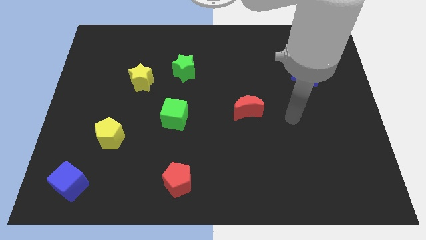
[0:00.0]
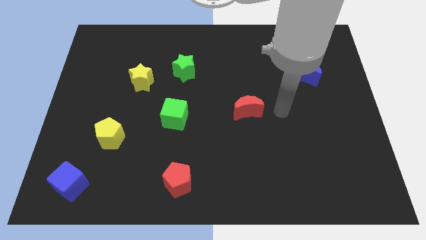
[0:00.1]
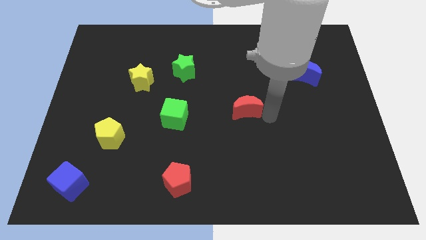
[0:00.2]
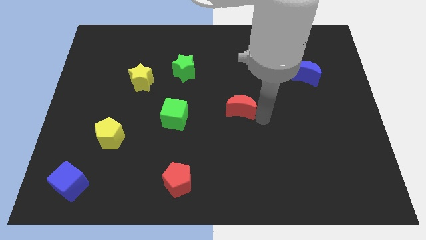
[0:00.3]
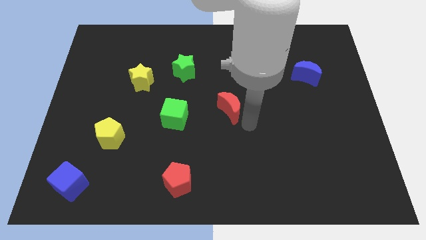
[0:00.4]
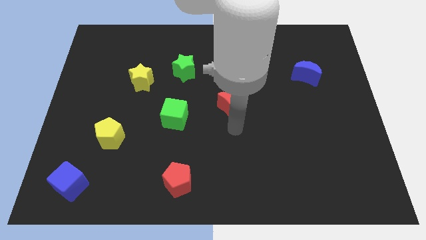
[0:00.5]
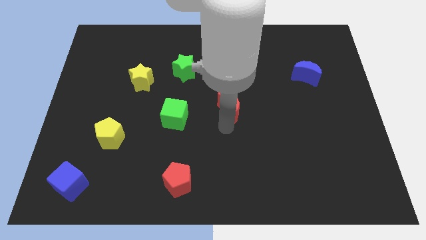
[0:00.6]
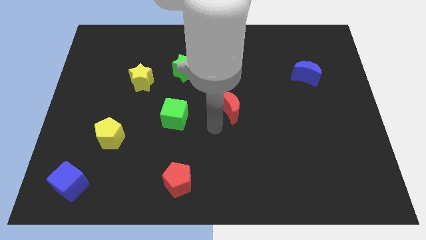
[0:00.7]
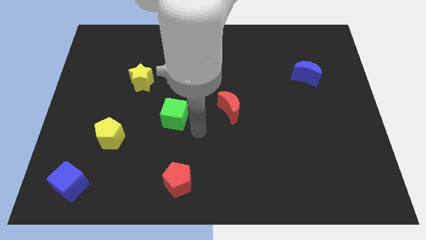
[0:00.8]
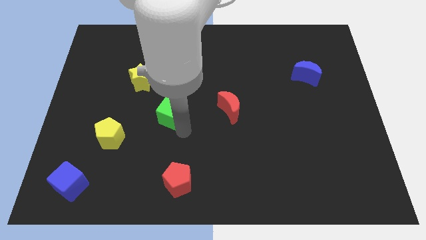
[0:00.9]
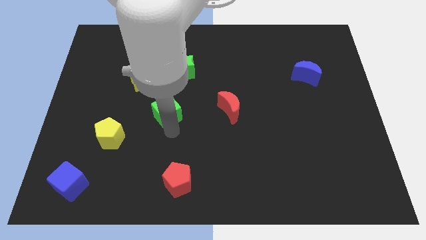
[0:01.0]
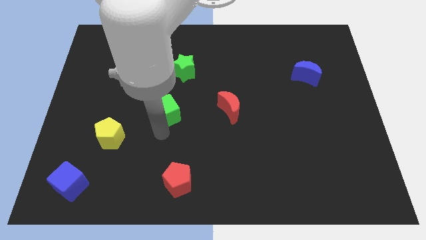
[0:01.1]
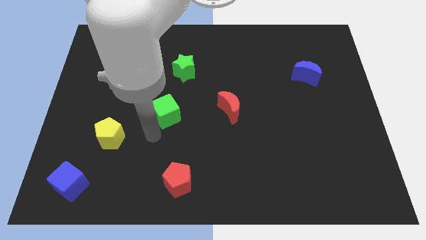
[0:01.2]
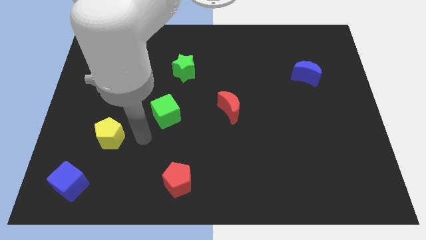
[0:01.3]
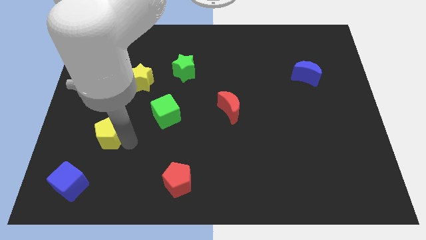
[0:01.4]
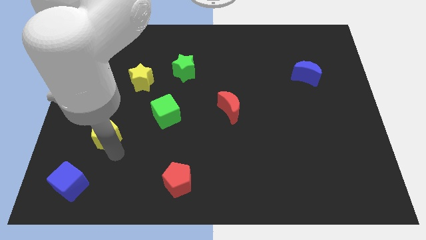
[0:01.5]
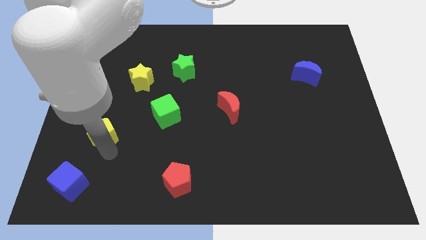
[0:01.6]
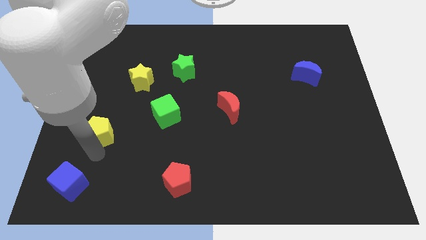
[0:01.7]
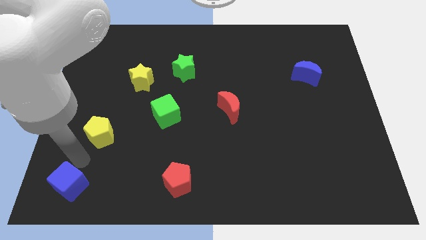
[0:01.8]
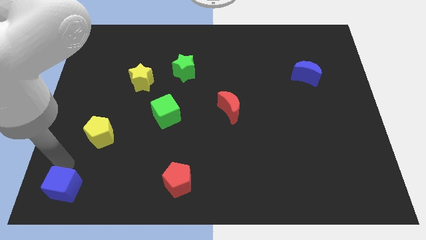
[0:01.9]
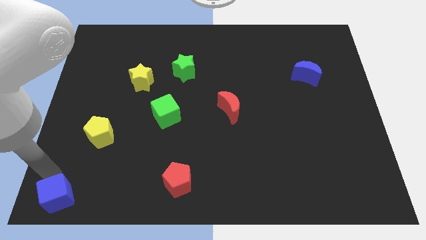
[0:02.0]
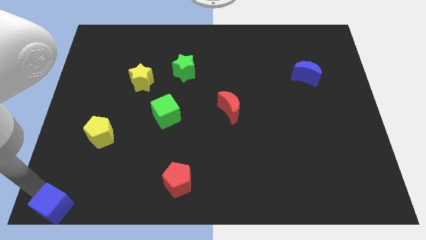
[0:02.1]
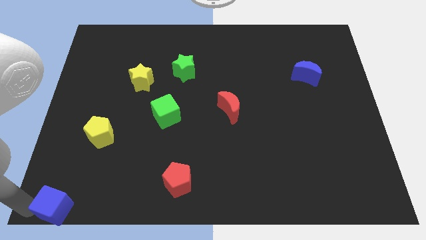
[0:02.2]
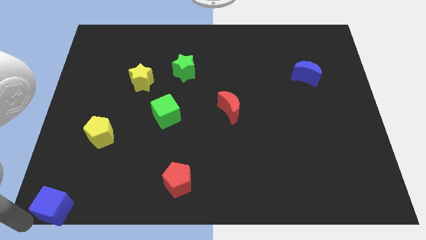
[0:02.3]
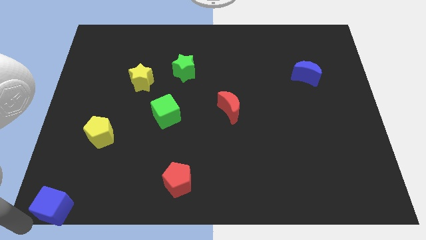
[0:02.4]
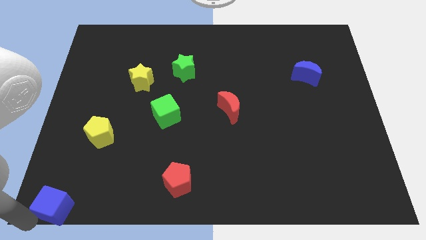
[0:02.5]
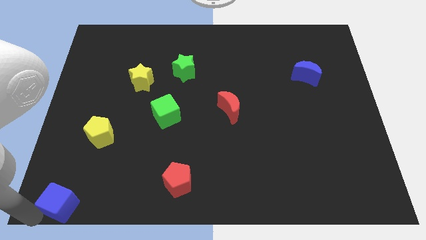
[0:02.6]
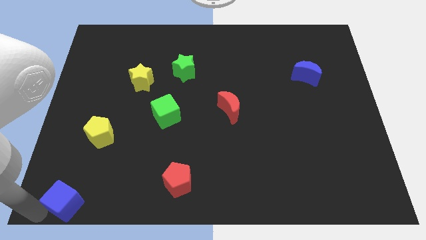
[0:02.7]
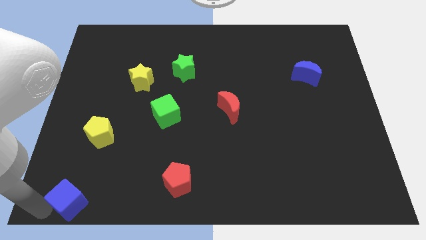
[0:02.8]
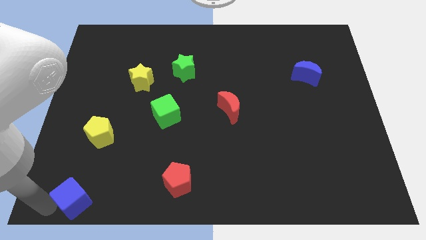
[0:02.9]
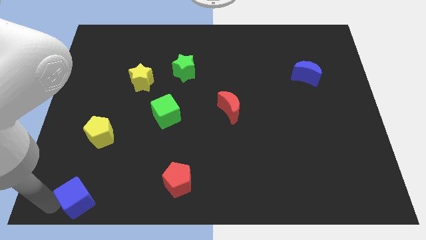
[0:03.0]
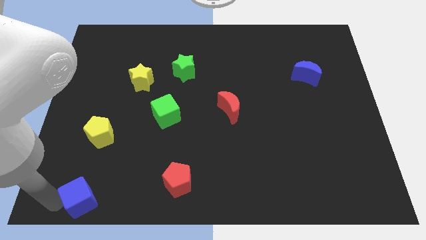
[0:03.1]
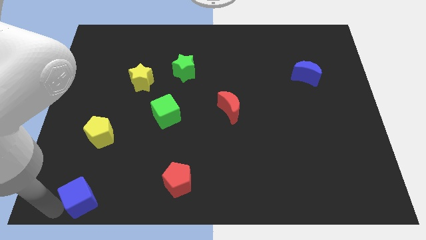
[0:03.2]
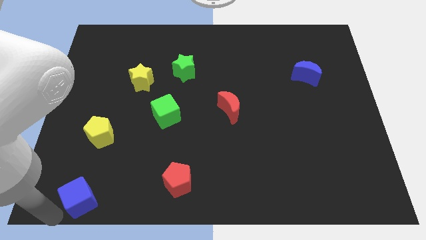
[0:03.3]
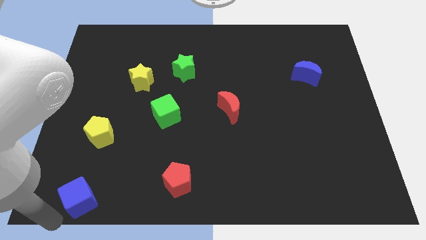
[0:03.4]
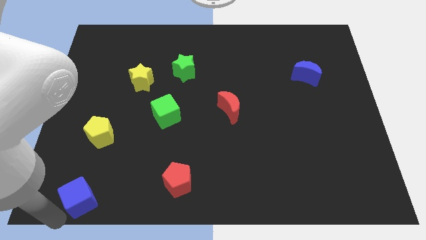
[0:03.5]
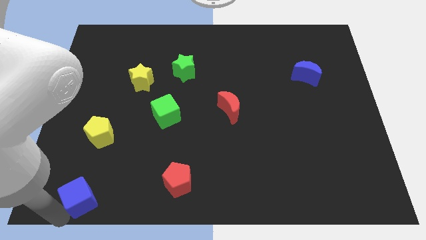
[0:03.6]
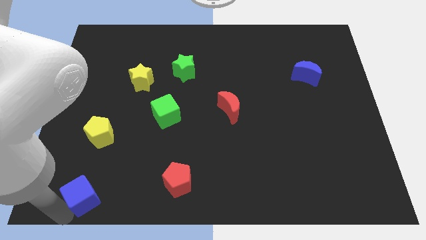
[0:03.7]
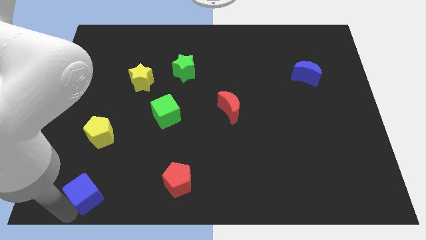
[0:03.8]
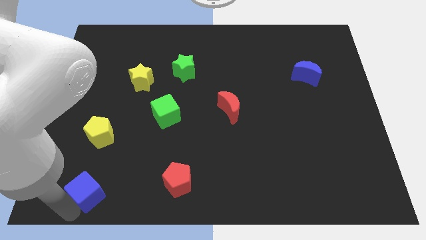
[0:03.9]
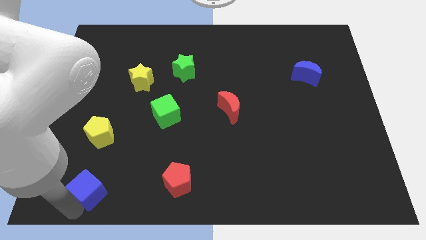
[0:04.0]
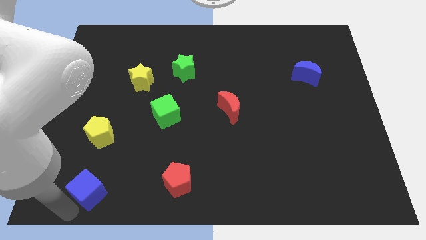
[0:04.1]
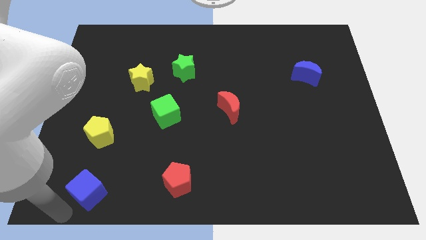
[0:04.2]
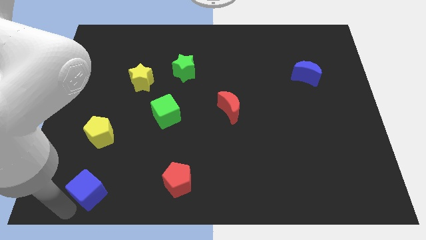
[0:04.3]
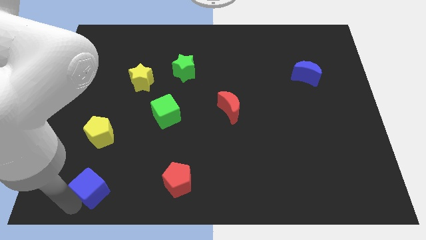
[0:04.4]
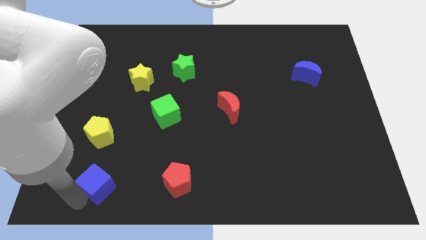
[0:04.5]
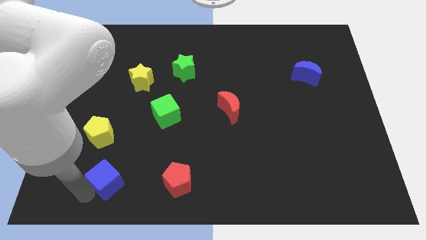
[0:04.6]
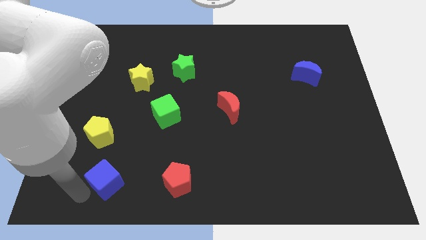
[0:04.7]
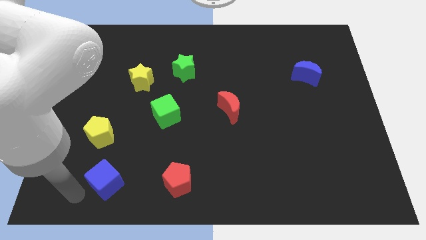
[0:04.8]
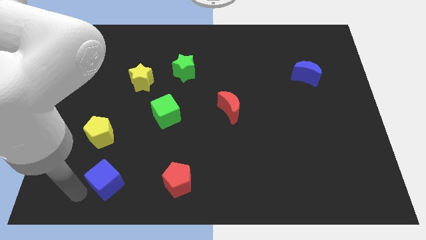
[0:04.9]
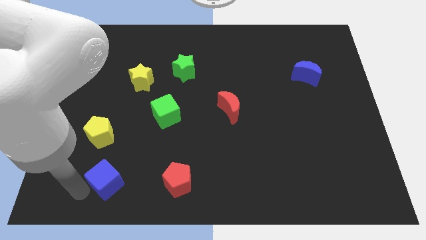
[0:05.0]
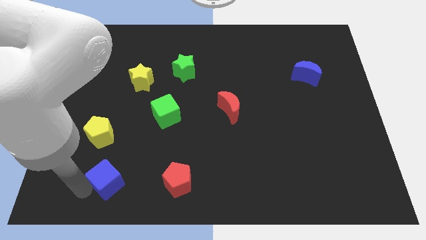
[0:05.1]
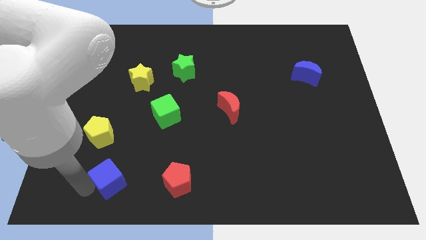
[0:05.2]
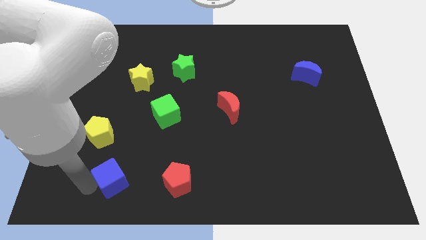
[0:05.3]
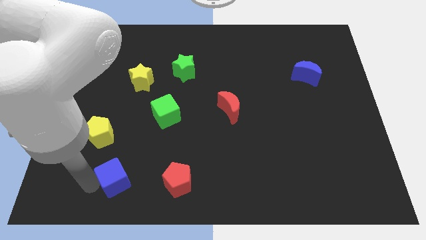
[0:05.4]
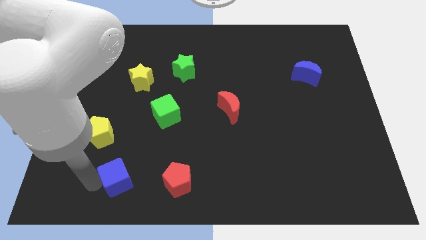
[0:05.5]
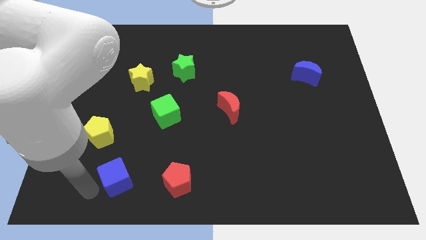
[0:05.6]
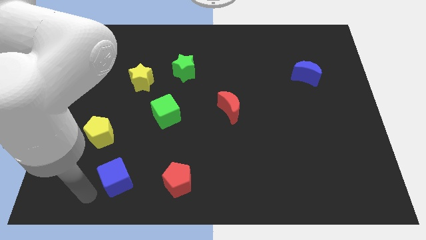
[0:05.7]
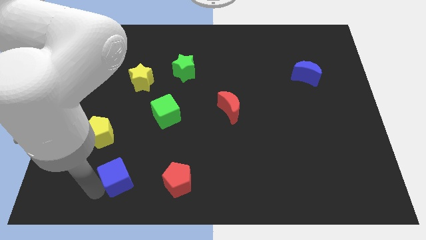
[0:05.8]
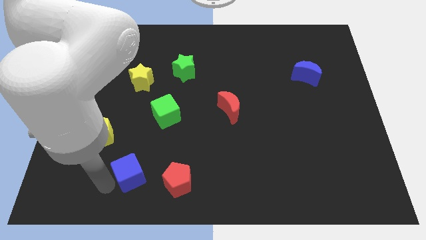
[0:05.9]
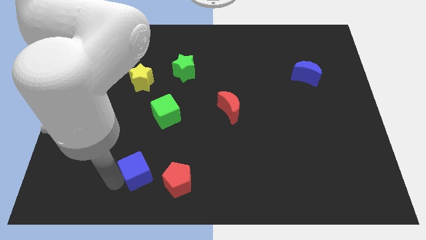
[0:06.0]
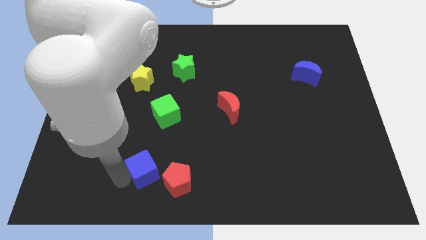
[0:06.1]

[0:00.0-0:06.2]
slide the blue cube to the bottom side of the green cube
